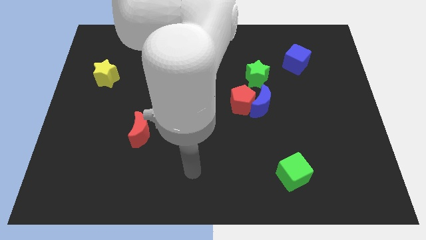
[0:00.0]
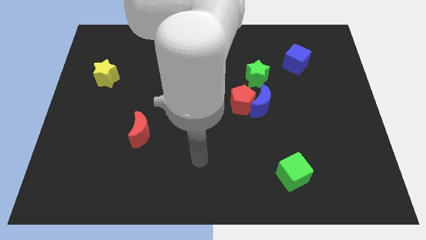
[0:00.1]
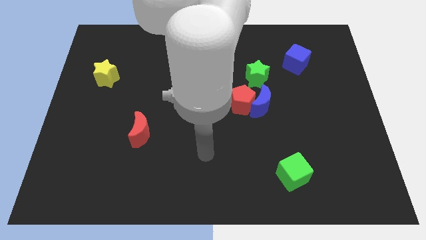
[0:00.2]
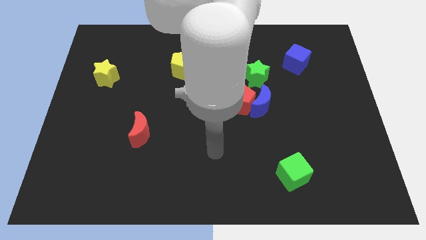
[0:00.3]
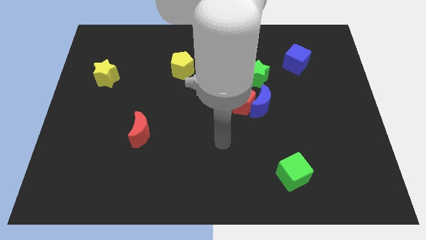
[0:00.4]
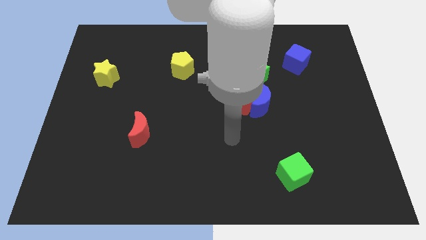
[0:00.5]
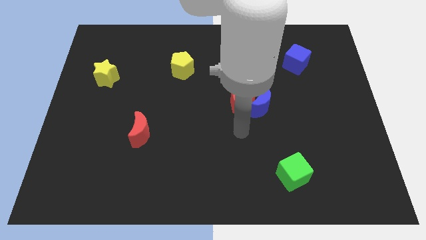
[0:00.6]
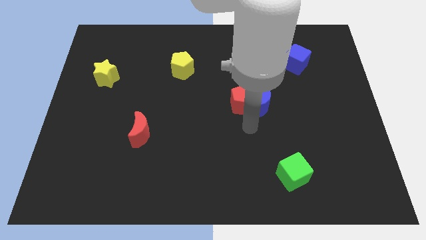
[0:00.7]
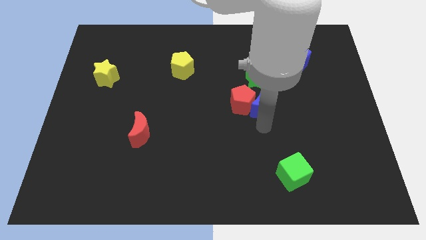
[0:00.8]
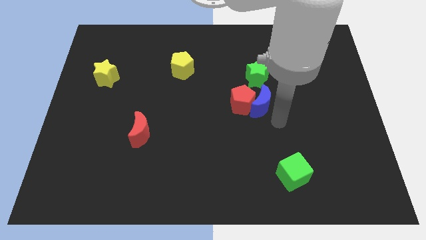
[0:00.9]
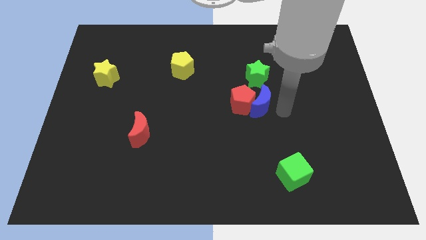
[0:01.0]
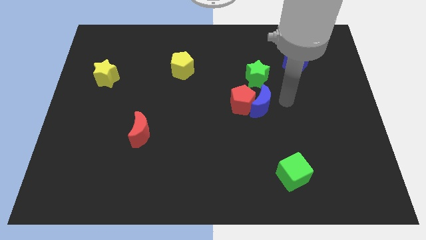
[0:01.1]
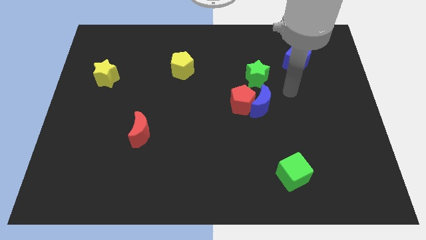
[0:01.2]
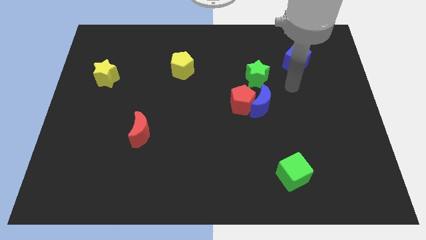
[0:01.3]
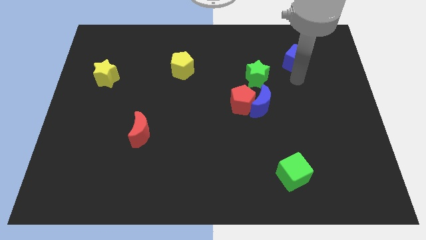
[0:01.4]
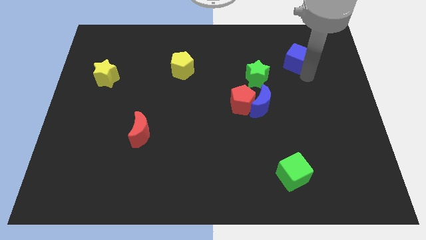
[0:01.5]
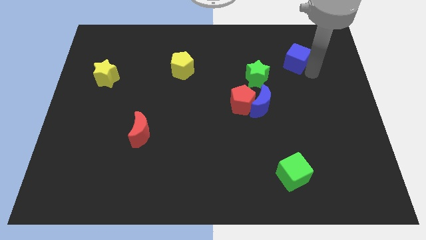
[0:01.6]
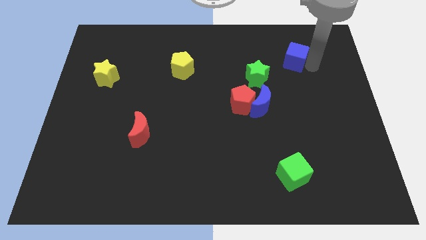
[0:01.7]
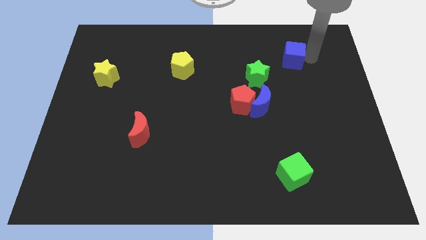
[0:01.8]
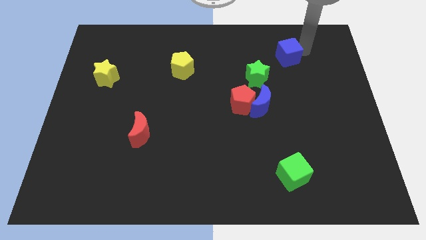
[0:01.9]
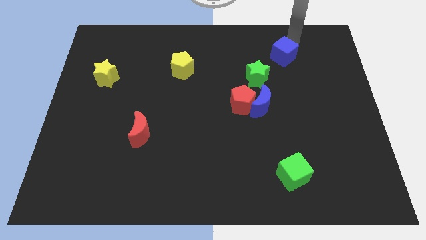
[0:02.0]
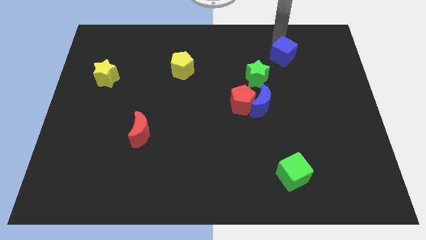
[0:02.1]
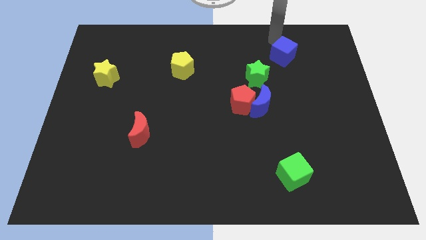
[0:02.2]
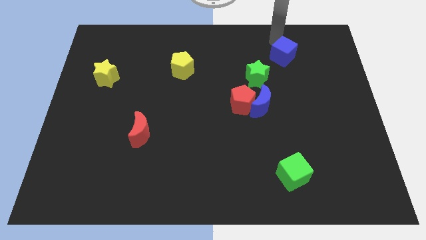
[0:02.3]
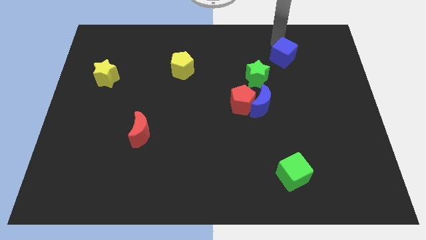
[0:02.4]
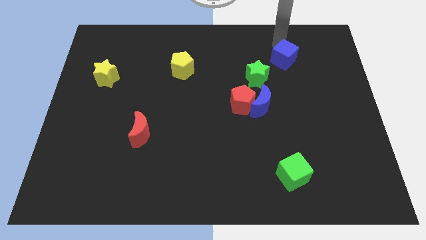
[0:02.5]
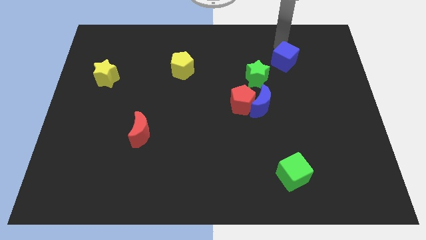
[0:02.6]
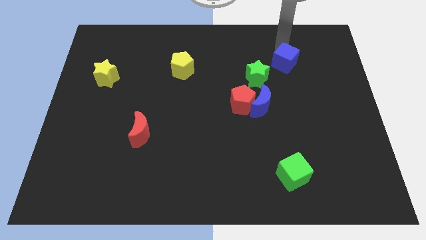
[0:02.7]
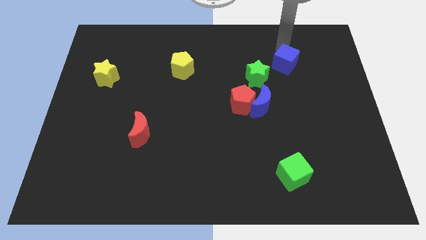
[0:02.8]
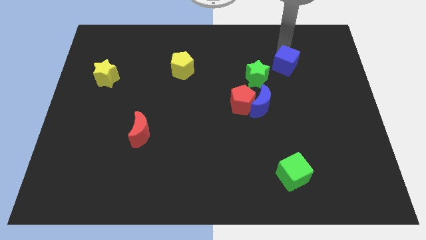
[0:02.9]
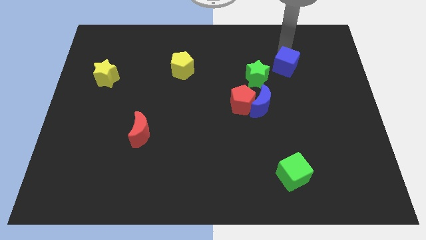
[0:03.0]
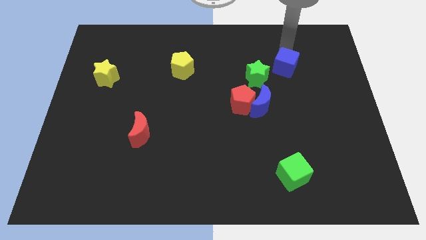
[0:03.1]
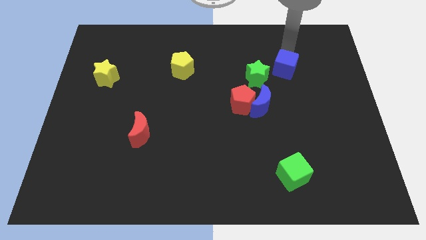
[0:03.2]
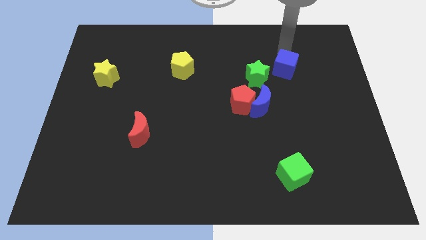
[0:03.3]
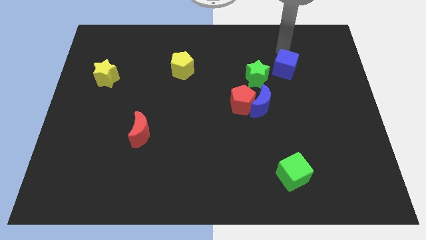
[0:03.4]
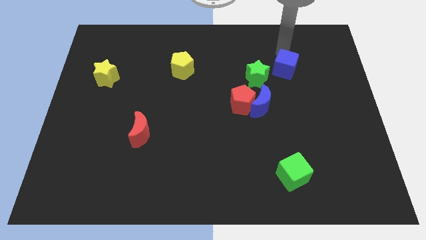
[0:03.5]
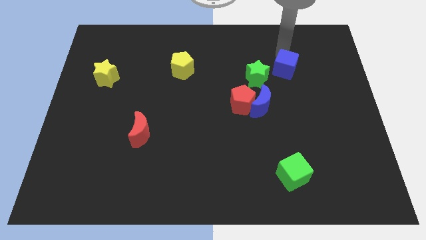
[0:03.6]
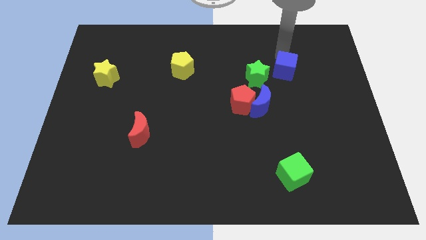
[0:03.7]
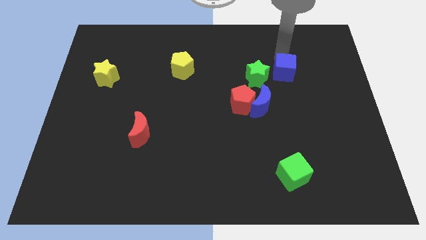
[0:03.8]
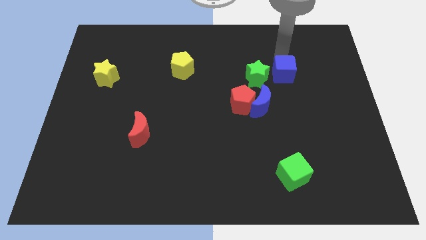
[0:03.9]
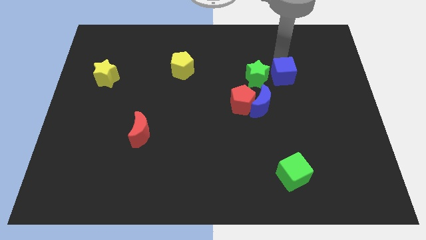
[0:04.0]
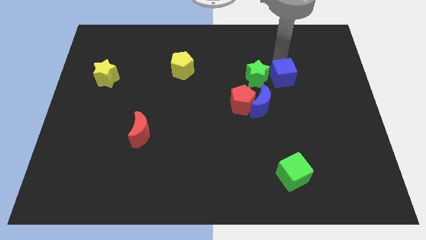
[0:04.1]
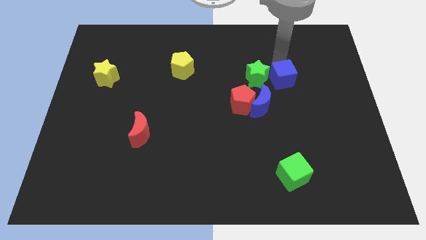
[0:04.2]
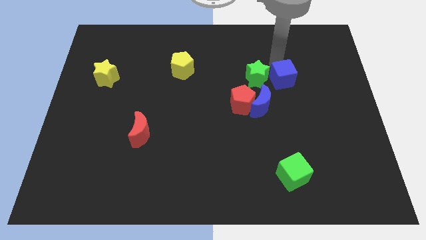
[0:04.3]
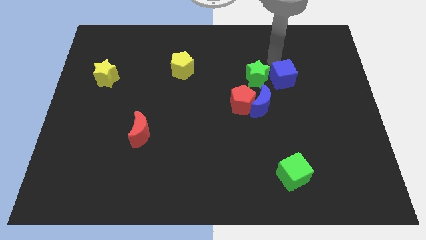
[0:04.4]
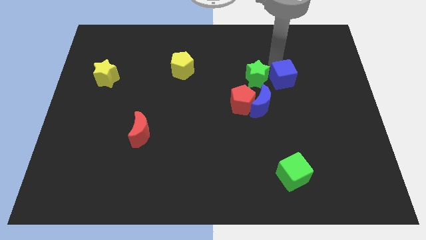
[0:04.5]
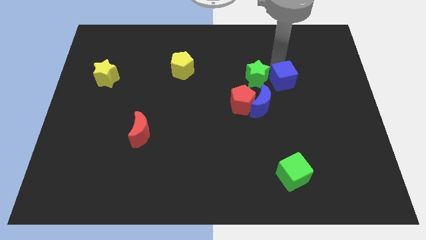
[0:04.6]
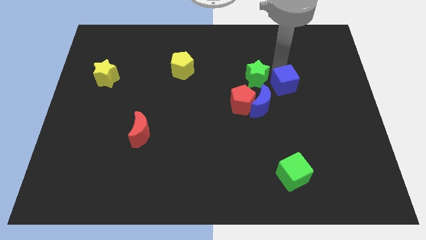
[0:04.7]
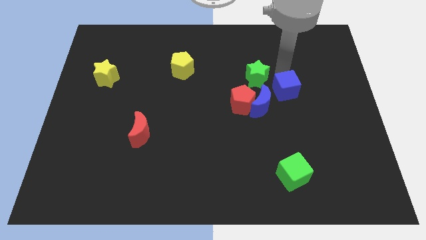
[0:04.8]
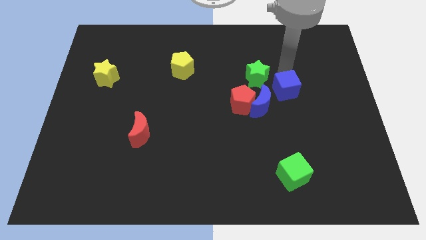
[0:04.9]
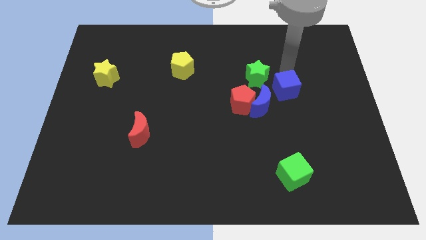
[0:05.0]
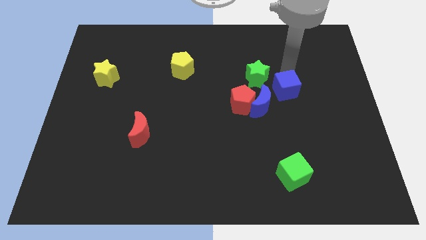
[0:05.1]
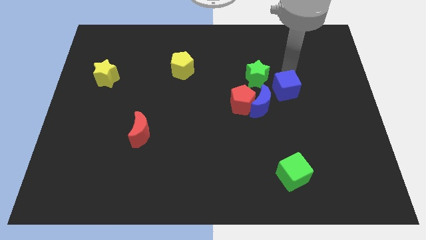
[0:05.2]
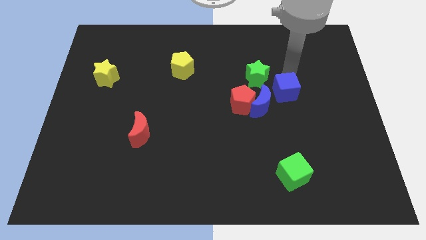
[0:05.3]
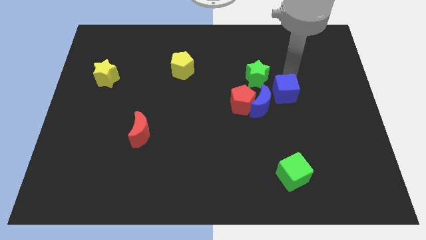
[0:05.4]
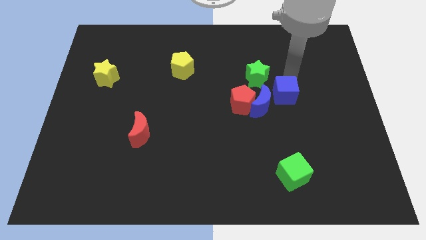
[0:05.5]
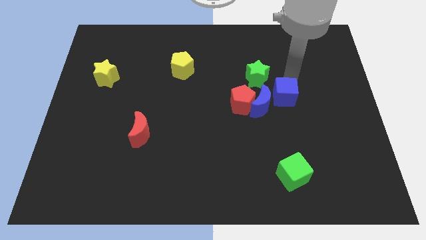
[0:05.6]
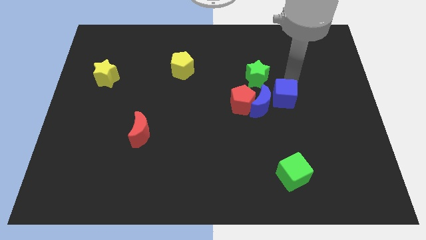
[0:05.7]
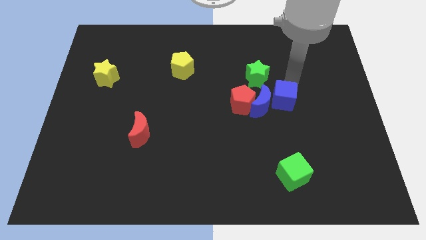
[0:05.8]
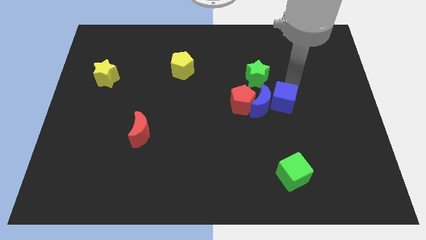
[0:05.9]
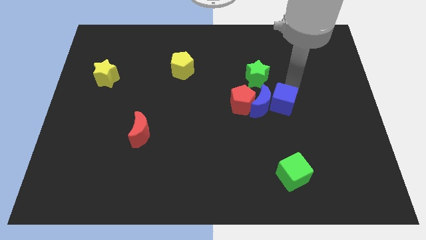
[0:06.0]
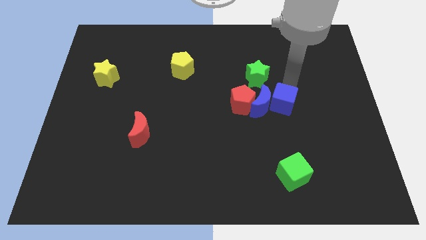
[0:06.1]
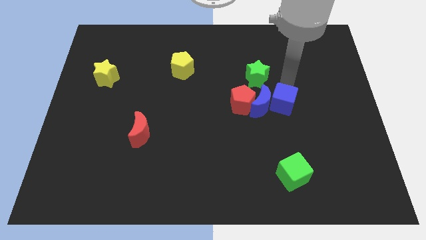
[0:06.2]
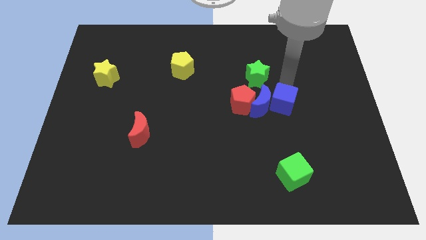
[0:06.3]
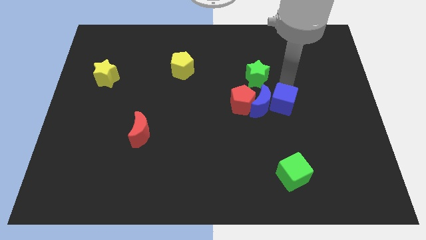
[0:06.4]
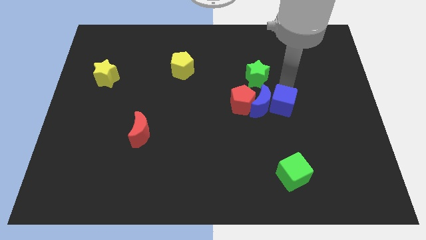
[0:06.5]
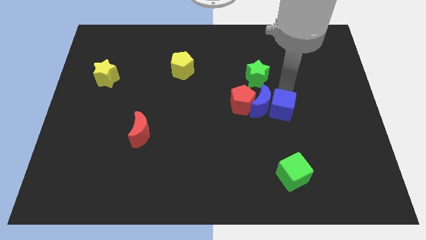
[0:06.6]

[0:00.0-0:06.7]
move the blue cube to the bottom side of the green star
